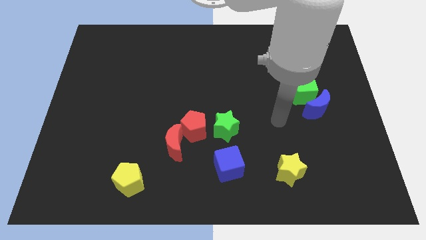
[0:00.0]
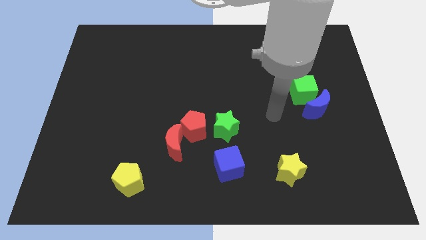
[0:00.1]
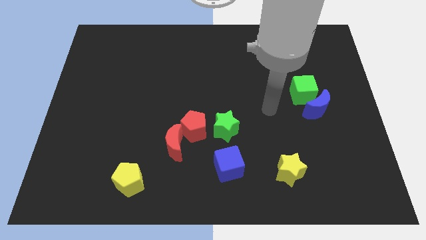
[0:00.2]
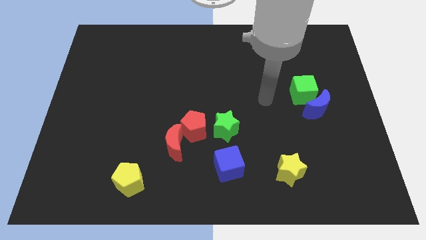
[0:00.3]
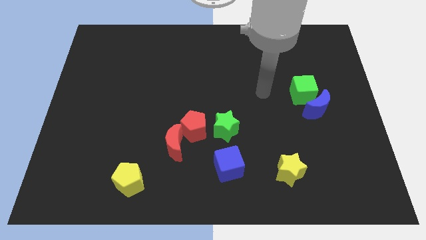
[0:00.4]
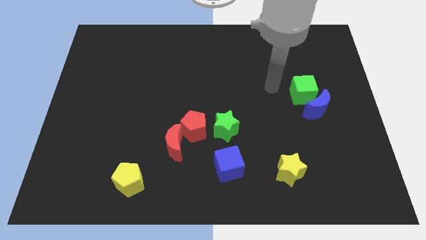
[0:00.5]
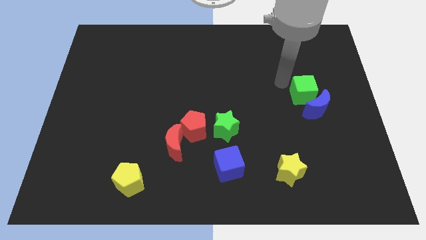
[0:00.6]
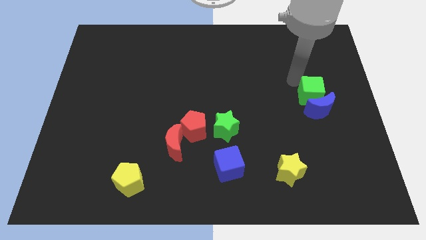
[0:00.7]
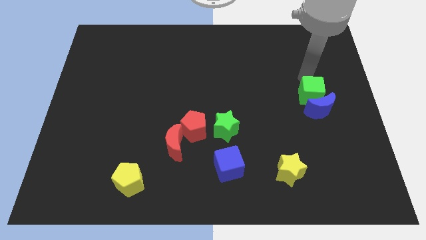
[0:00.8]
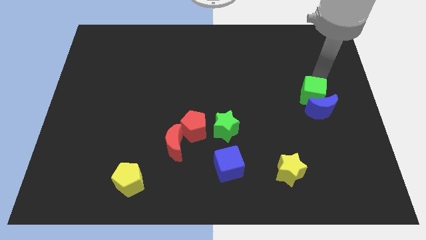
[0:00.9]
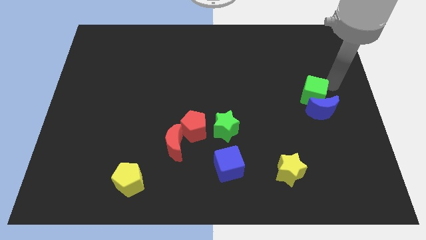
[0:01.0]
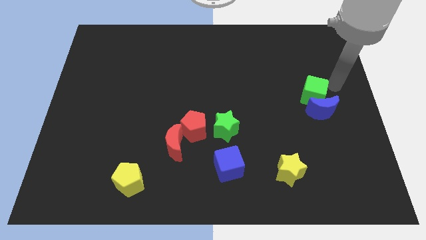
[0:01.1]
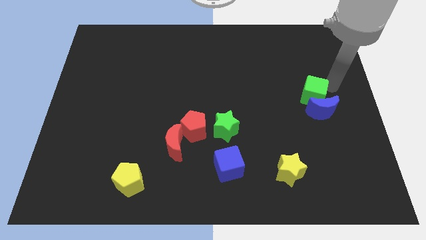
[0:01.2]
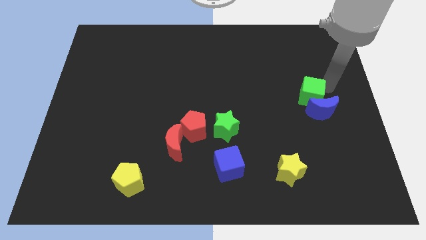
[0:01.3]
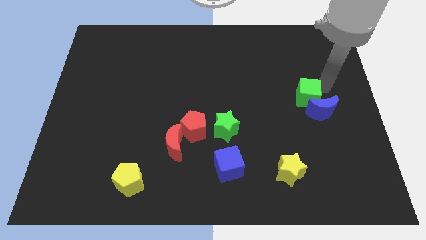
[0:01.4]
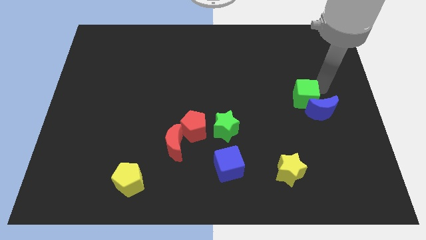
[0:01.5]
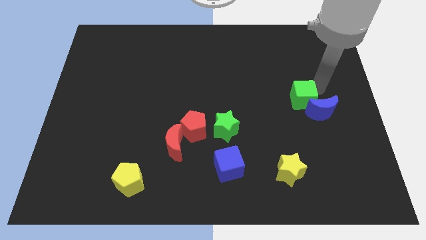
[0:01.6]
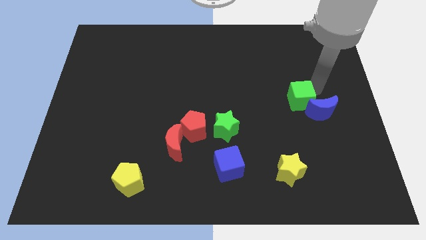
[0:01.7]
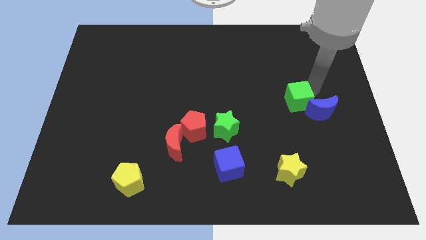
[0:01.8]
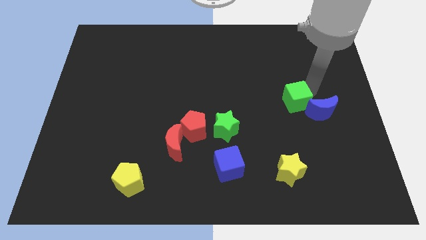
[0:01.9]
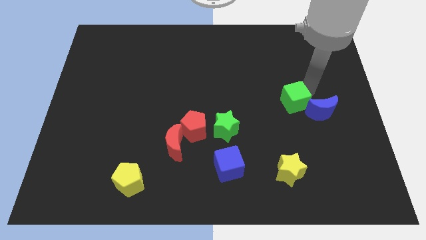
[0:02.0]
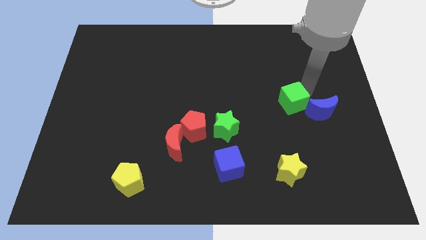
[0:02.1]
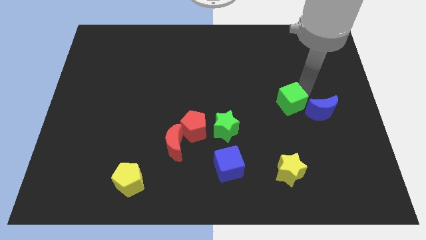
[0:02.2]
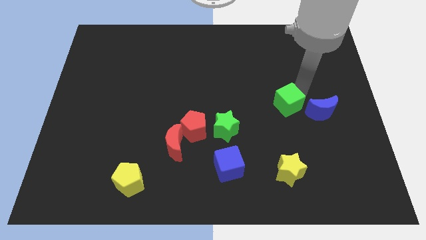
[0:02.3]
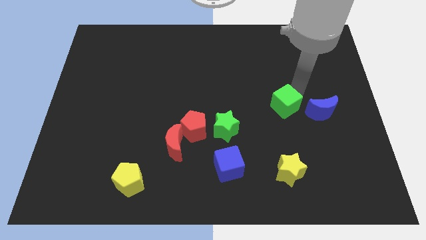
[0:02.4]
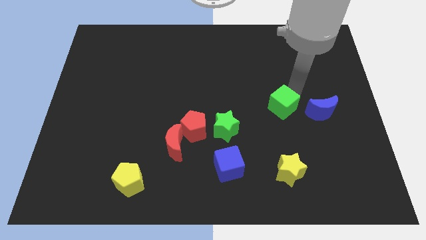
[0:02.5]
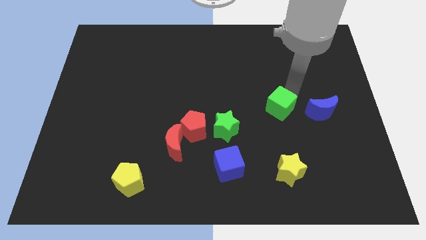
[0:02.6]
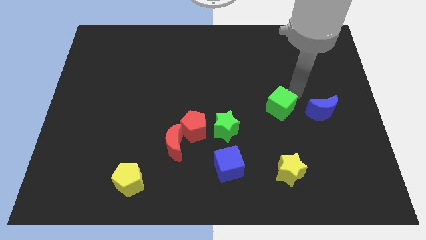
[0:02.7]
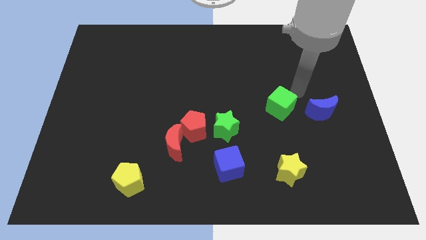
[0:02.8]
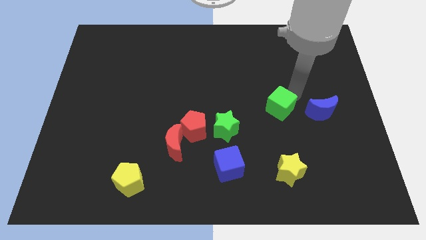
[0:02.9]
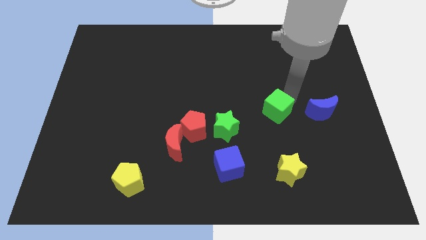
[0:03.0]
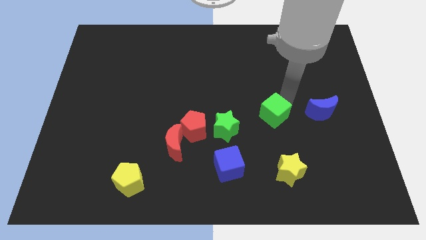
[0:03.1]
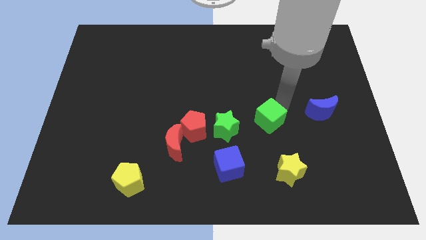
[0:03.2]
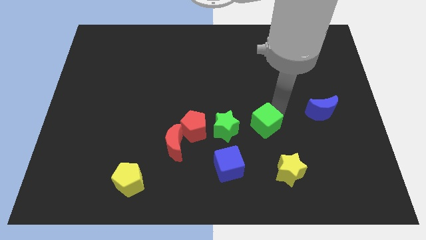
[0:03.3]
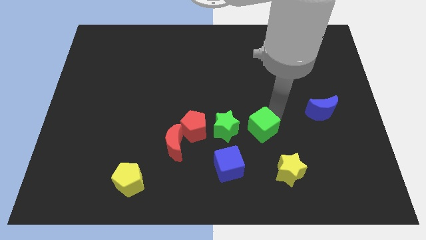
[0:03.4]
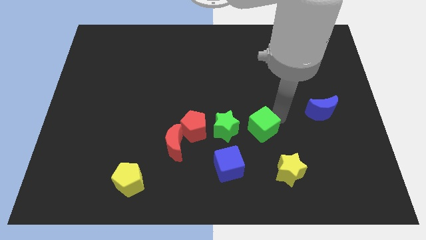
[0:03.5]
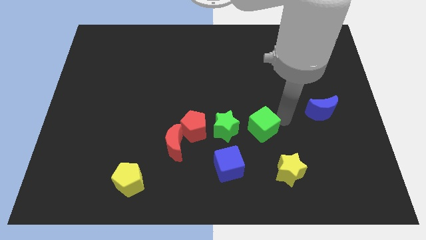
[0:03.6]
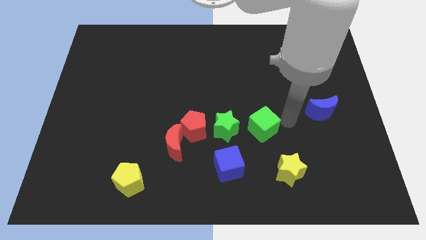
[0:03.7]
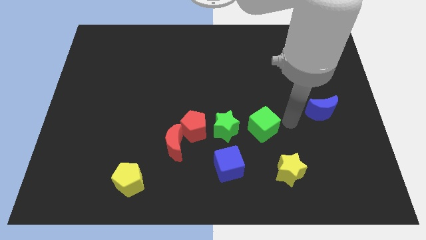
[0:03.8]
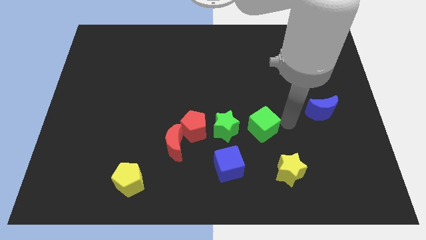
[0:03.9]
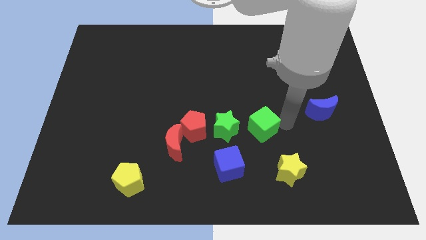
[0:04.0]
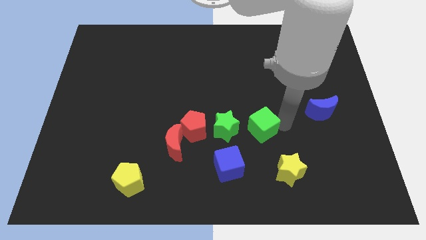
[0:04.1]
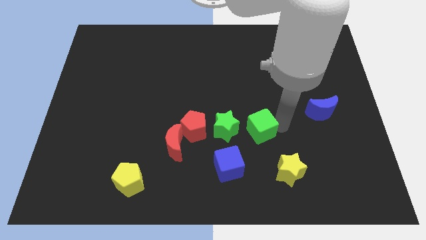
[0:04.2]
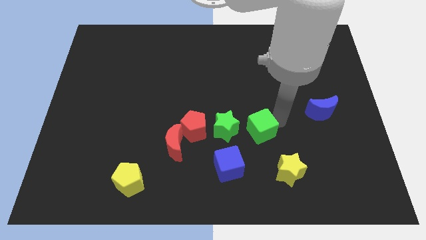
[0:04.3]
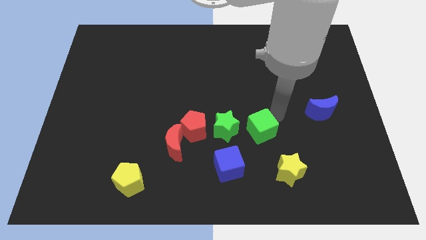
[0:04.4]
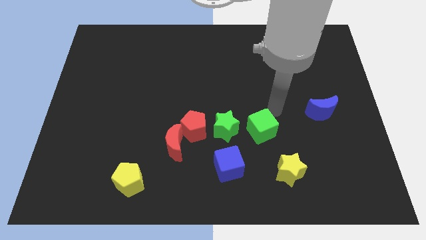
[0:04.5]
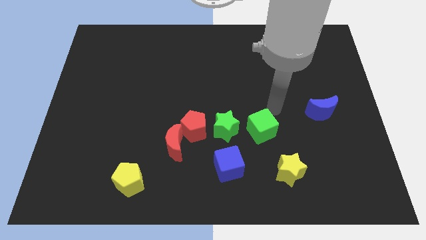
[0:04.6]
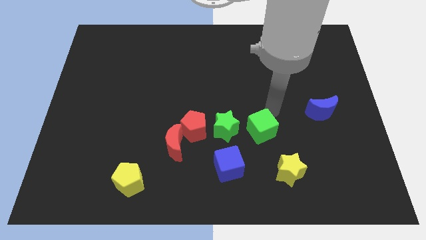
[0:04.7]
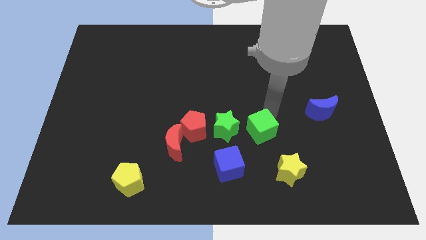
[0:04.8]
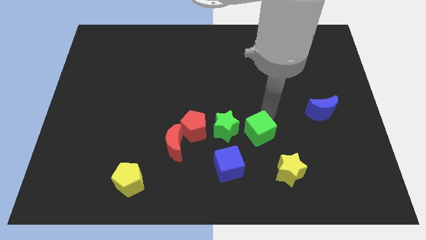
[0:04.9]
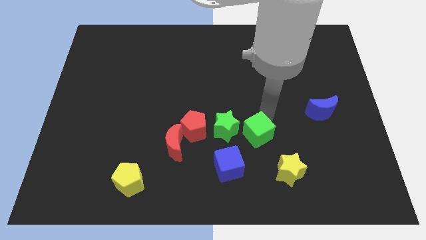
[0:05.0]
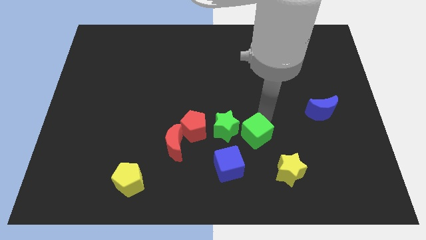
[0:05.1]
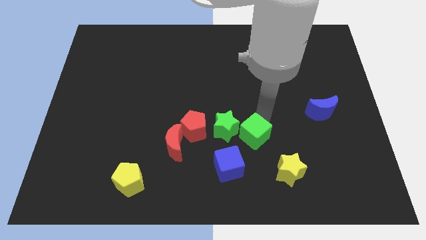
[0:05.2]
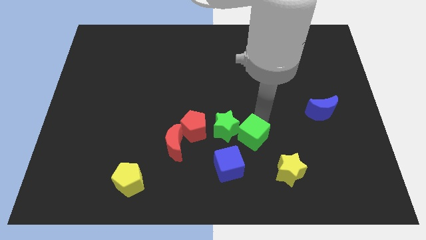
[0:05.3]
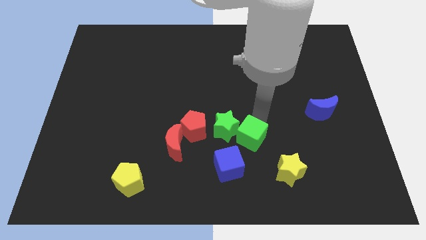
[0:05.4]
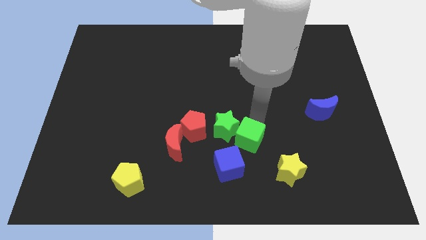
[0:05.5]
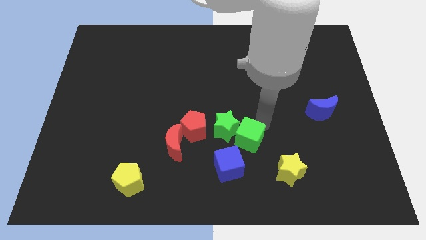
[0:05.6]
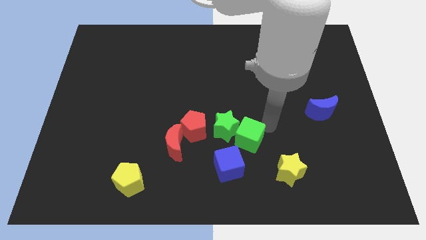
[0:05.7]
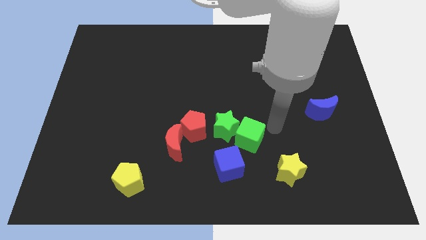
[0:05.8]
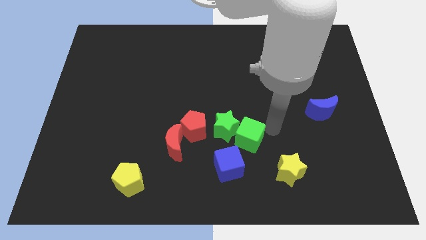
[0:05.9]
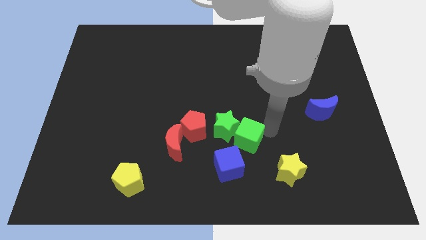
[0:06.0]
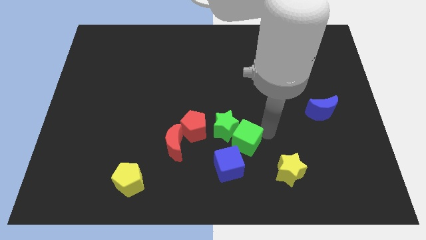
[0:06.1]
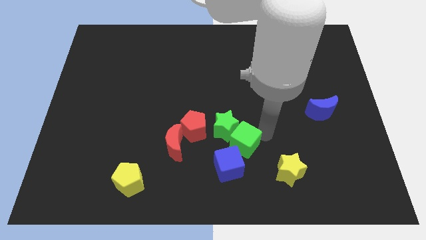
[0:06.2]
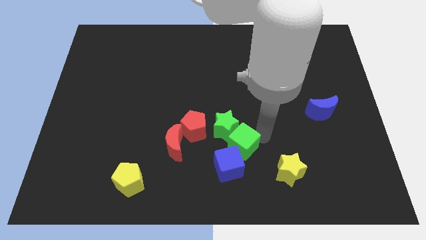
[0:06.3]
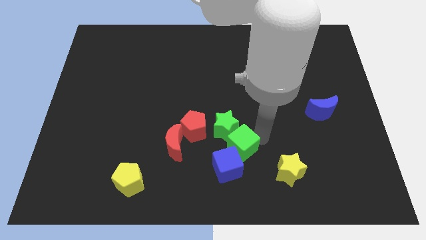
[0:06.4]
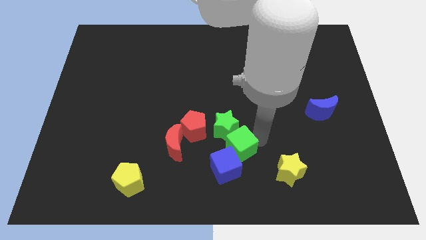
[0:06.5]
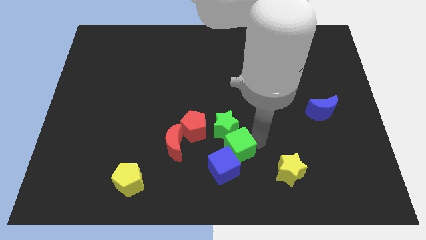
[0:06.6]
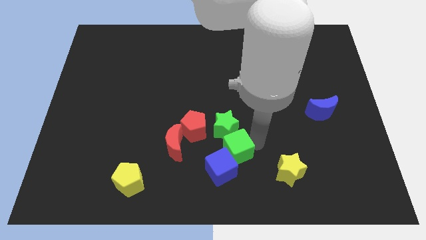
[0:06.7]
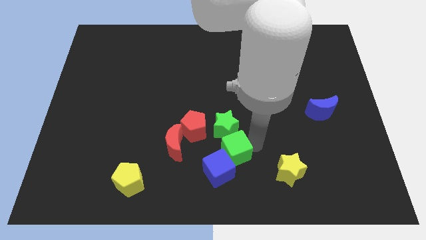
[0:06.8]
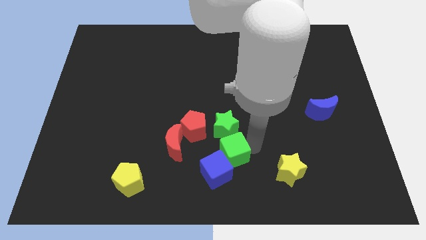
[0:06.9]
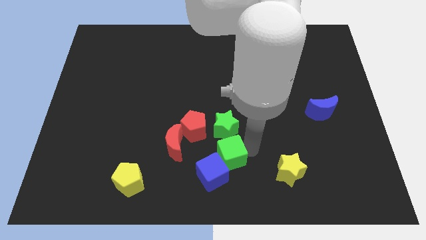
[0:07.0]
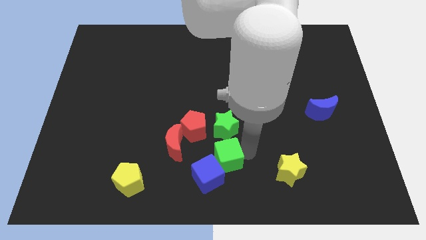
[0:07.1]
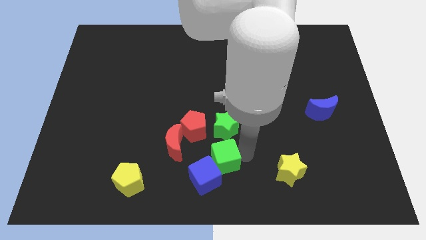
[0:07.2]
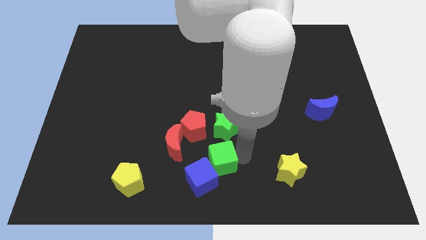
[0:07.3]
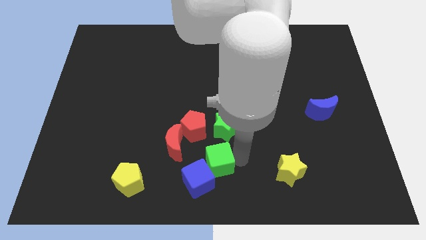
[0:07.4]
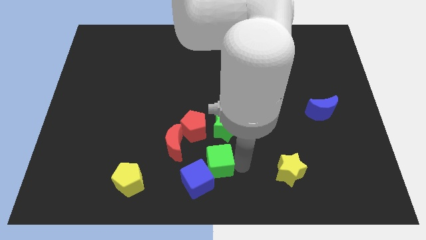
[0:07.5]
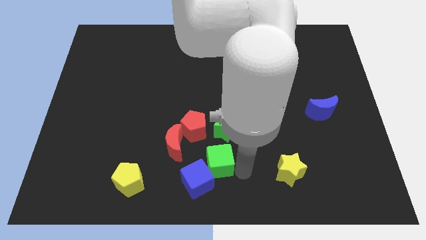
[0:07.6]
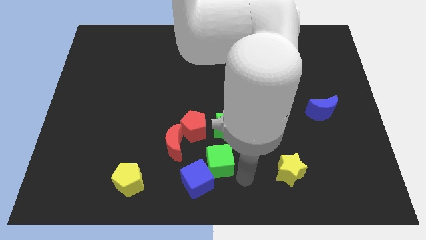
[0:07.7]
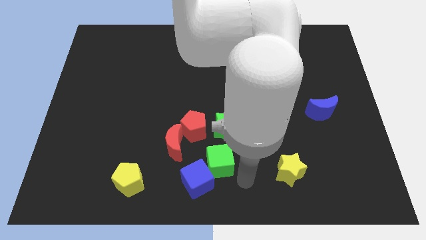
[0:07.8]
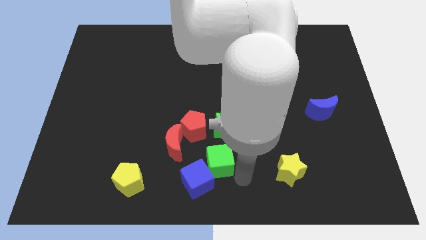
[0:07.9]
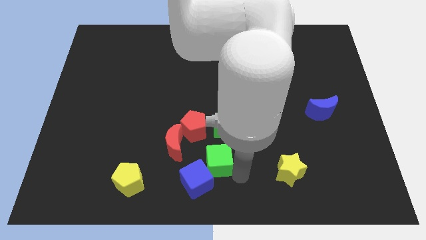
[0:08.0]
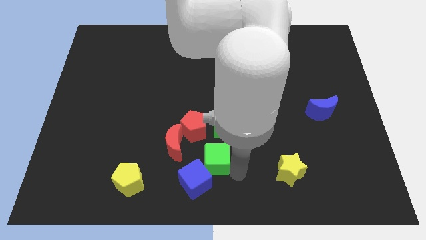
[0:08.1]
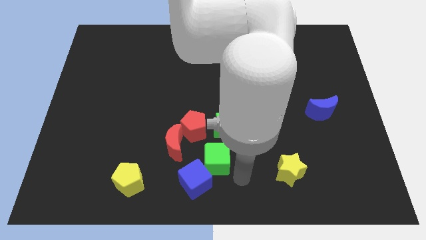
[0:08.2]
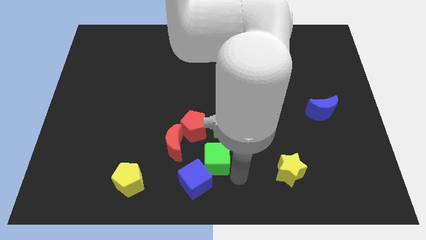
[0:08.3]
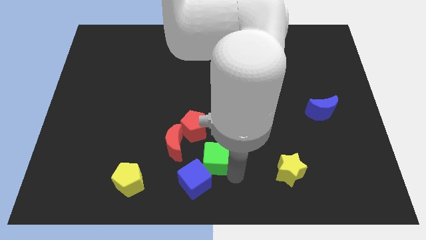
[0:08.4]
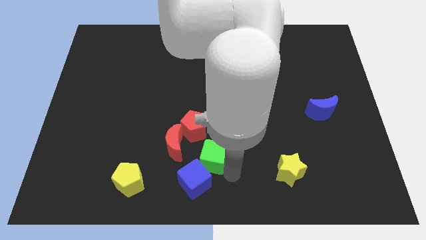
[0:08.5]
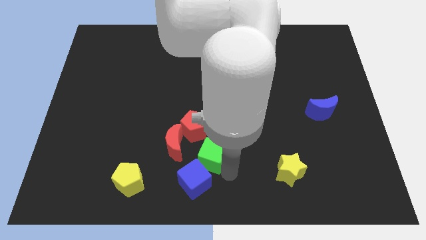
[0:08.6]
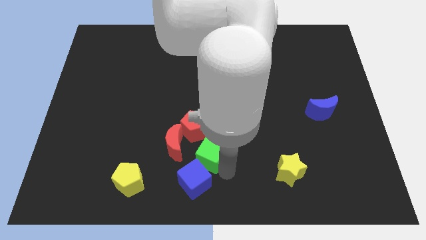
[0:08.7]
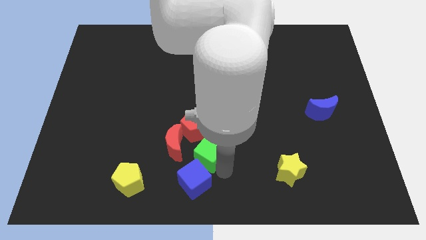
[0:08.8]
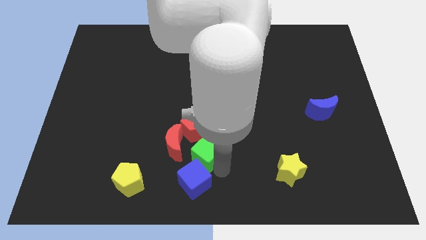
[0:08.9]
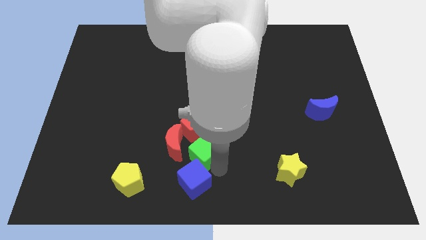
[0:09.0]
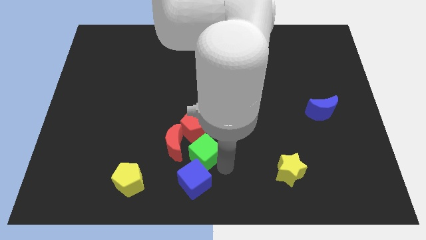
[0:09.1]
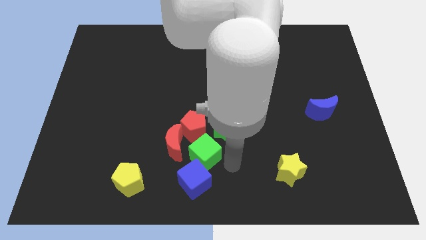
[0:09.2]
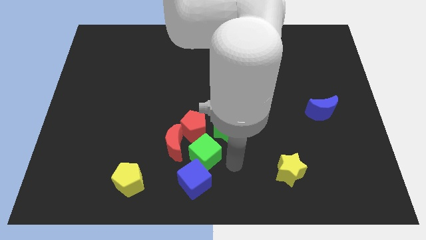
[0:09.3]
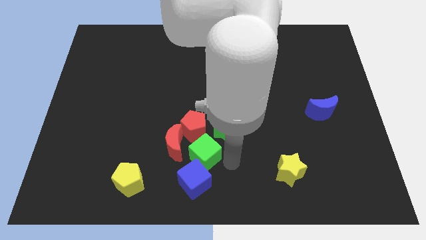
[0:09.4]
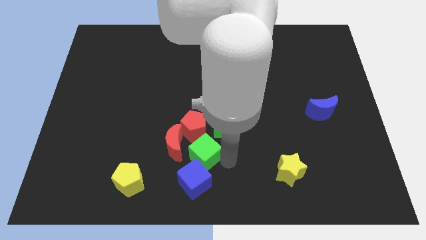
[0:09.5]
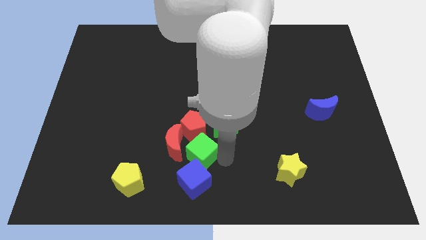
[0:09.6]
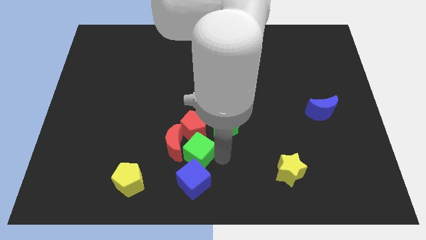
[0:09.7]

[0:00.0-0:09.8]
slide the green cube next to the red moon
